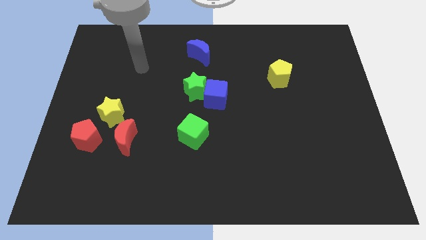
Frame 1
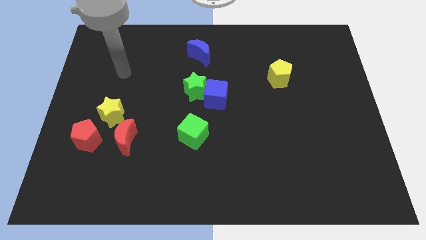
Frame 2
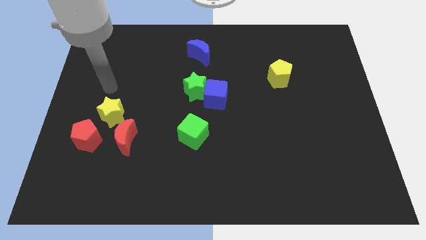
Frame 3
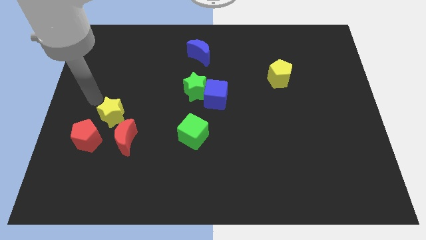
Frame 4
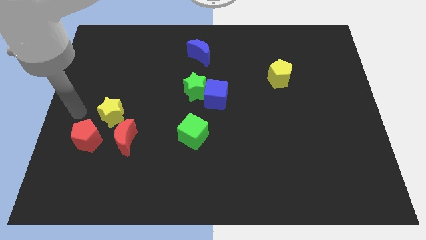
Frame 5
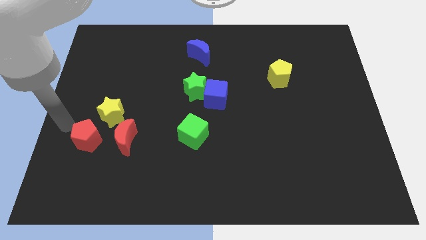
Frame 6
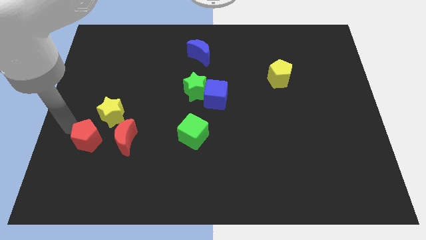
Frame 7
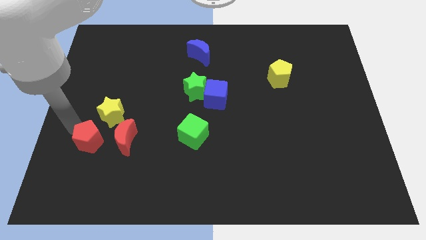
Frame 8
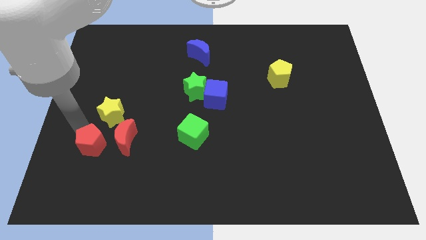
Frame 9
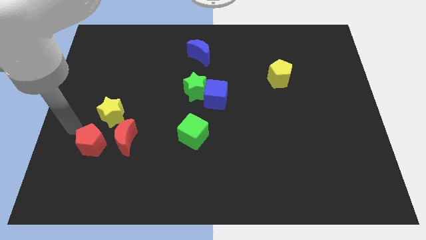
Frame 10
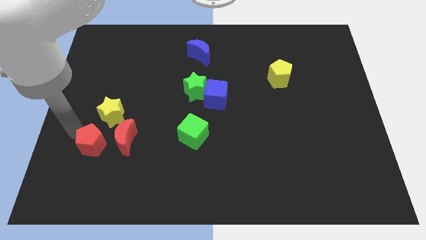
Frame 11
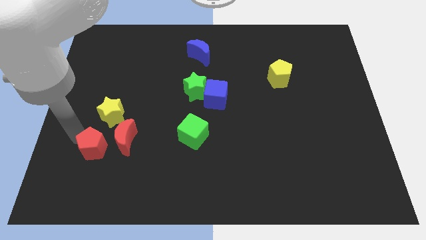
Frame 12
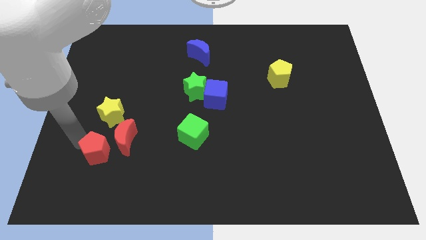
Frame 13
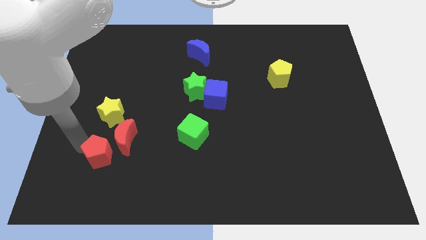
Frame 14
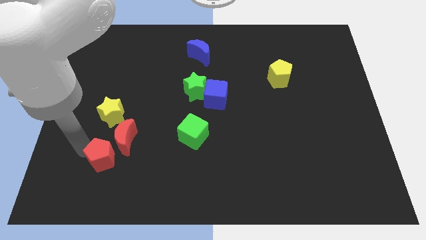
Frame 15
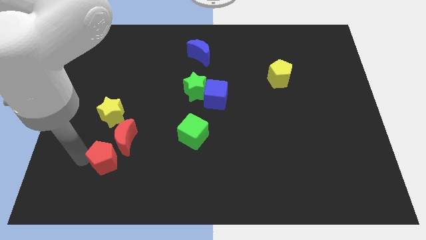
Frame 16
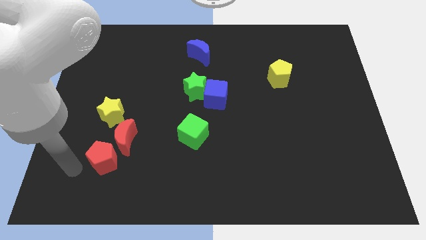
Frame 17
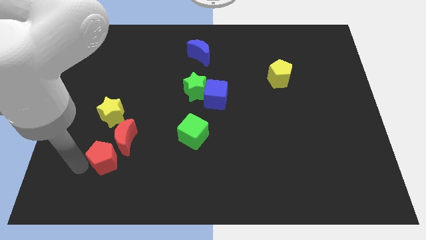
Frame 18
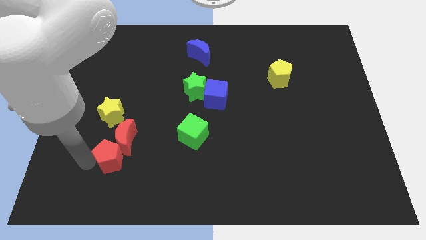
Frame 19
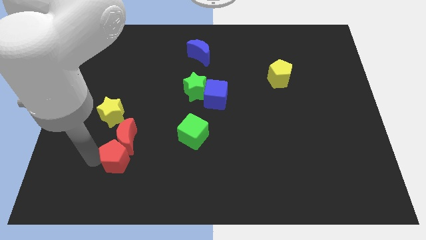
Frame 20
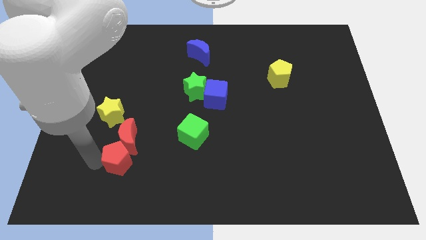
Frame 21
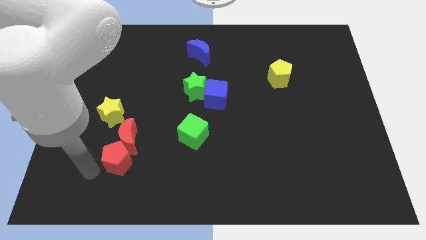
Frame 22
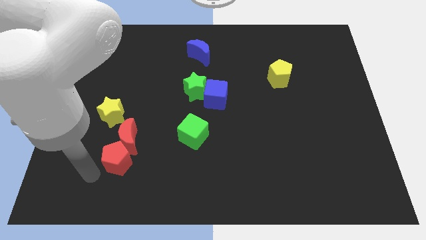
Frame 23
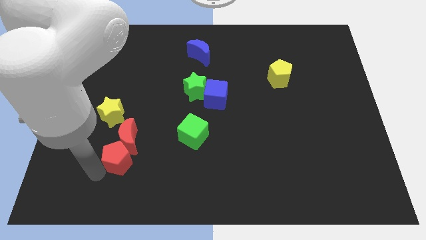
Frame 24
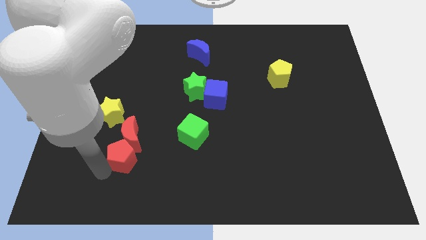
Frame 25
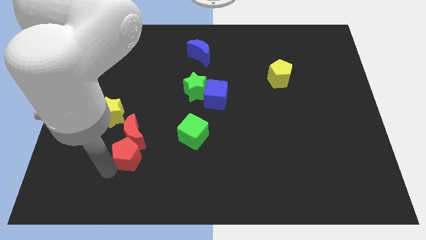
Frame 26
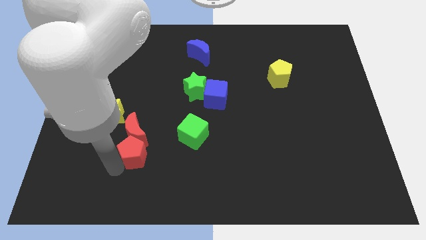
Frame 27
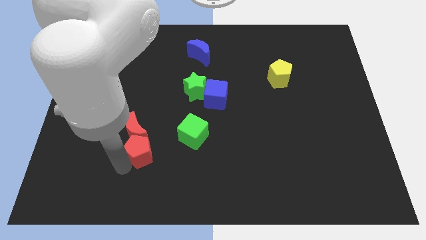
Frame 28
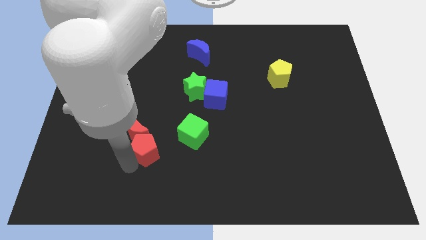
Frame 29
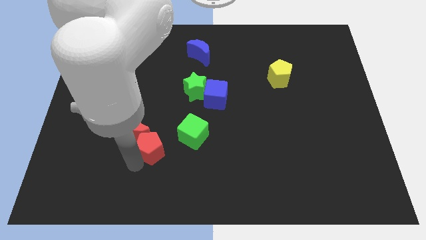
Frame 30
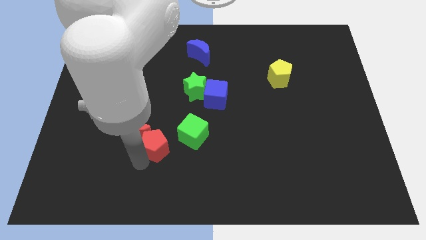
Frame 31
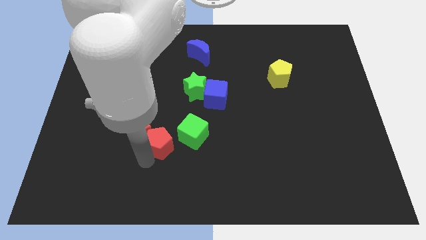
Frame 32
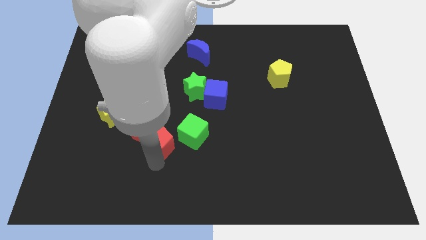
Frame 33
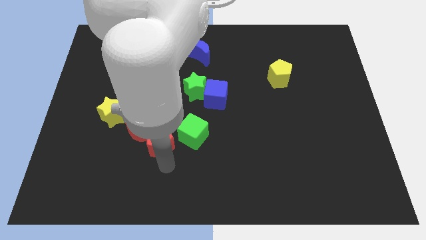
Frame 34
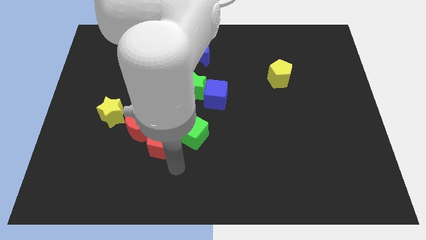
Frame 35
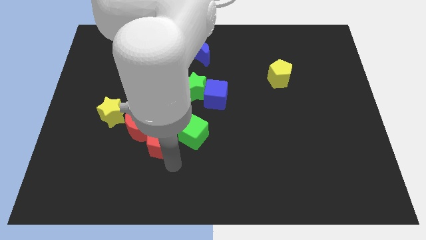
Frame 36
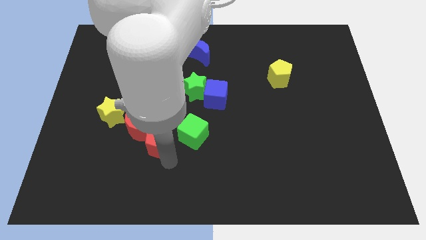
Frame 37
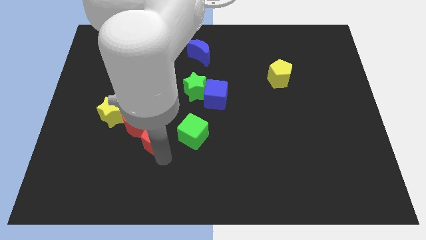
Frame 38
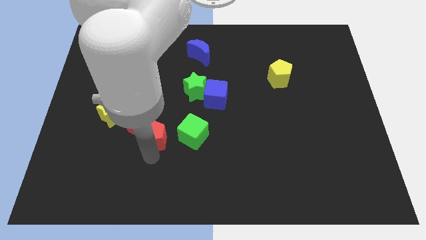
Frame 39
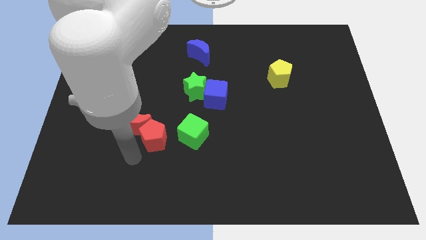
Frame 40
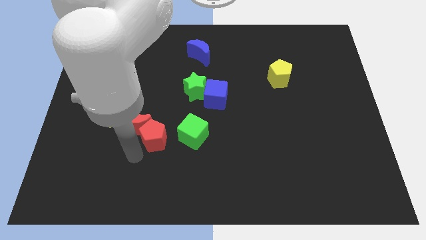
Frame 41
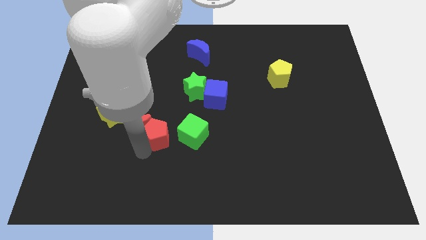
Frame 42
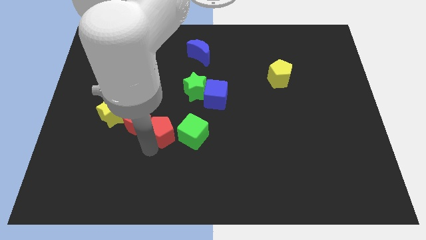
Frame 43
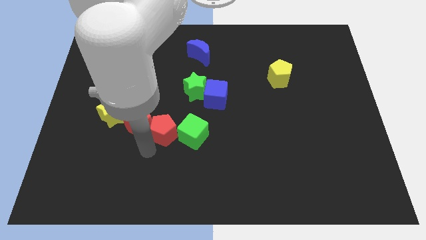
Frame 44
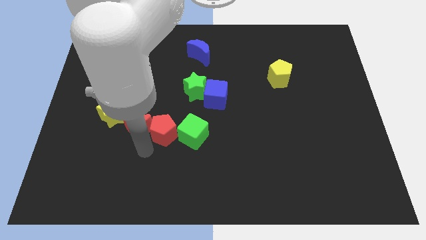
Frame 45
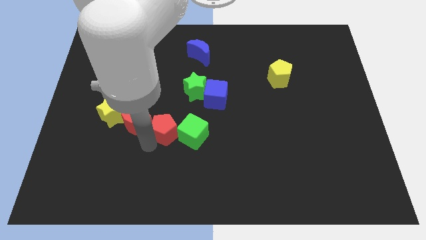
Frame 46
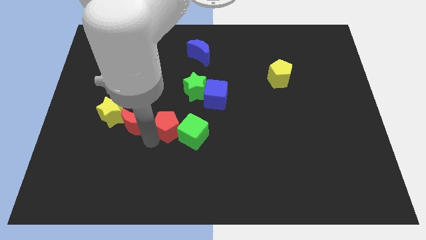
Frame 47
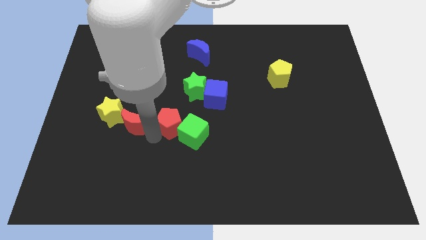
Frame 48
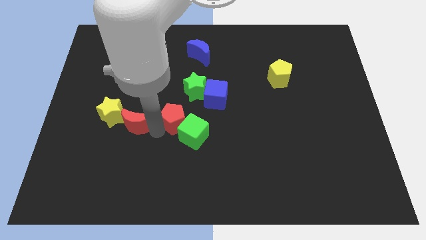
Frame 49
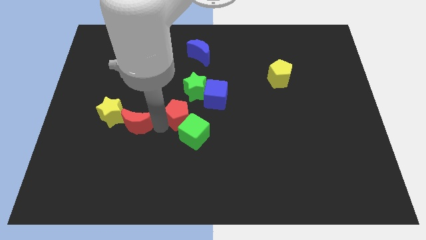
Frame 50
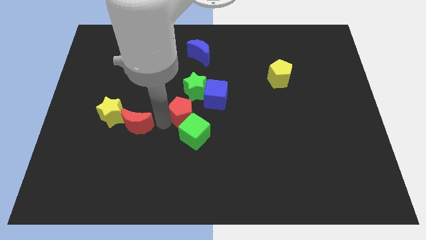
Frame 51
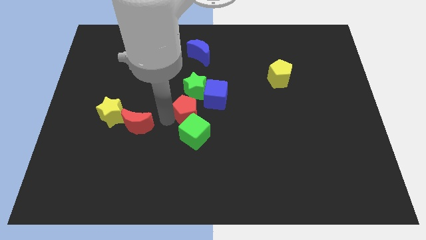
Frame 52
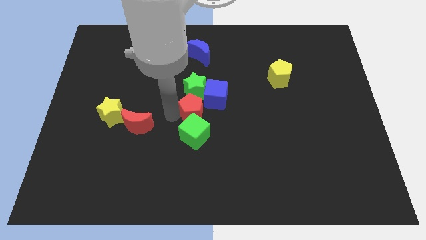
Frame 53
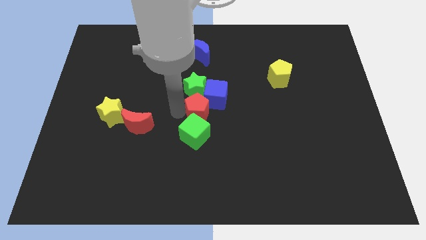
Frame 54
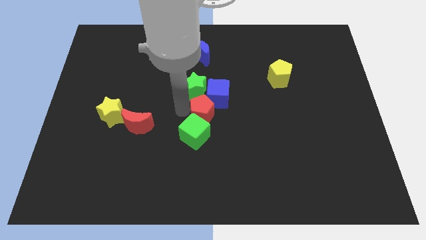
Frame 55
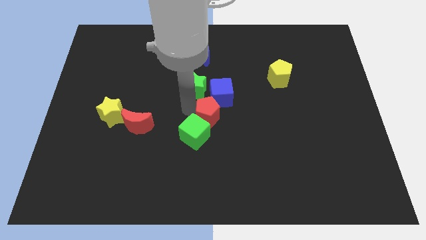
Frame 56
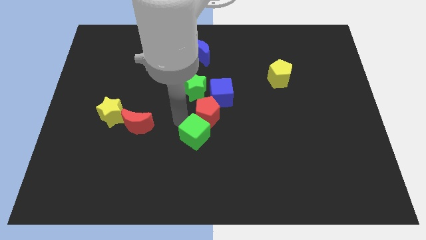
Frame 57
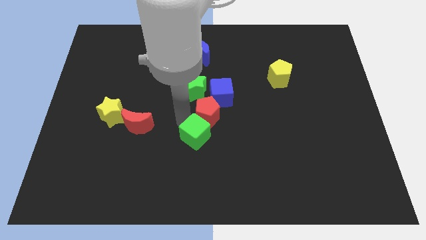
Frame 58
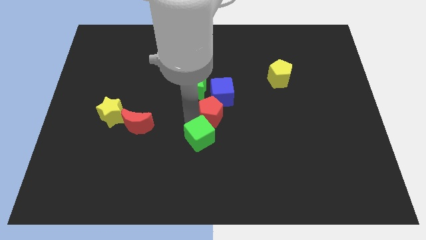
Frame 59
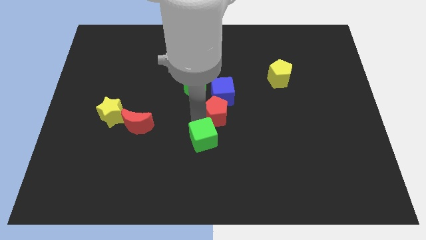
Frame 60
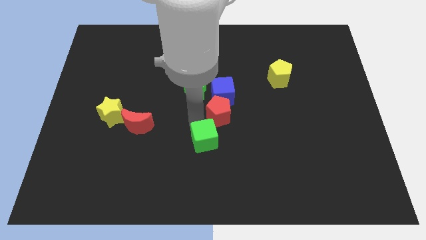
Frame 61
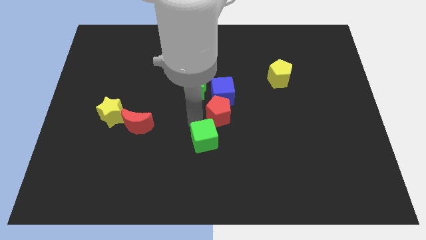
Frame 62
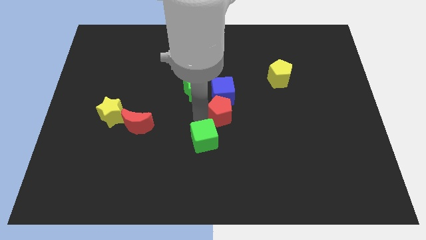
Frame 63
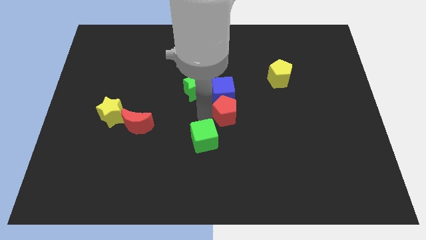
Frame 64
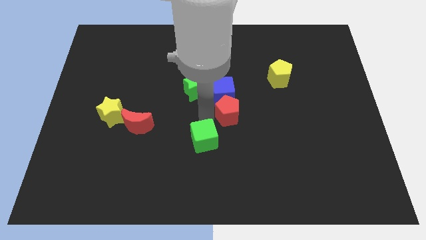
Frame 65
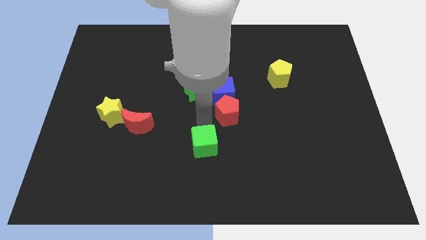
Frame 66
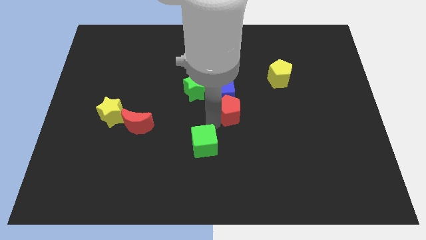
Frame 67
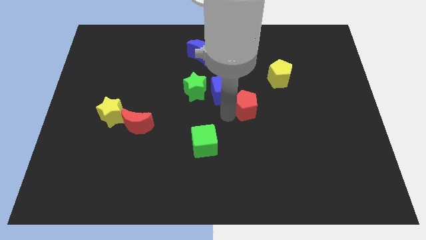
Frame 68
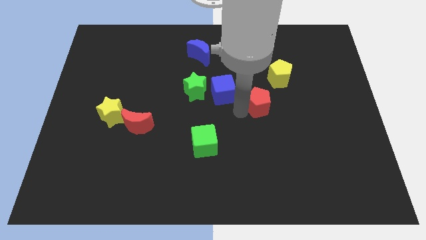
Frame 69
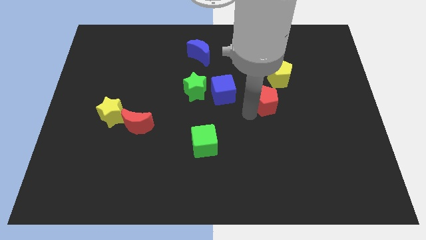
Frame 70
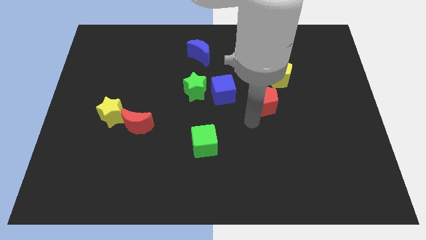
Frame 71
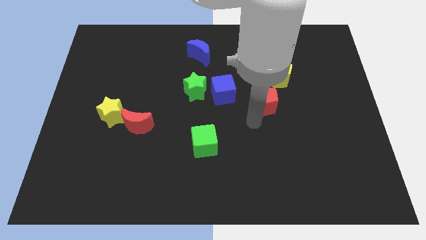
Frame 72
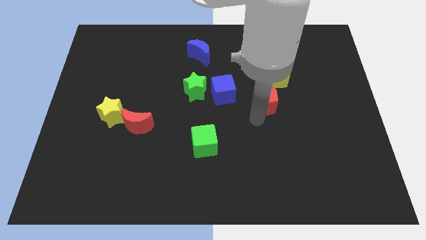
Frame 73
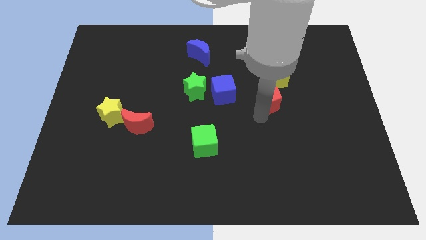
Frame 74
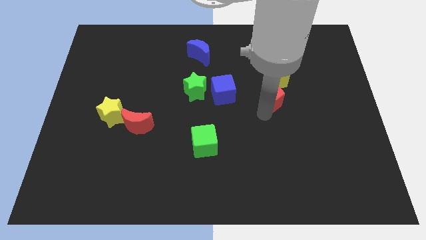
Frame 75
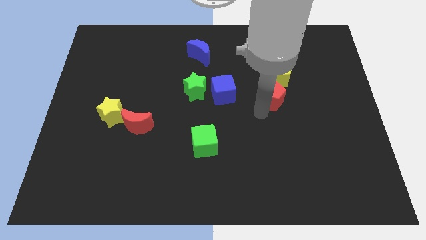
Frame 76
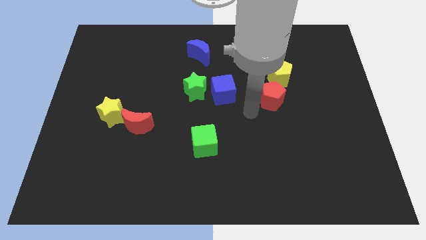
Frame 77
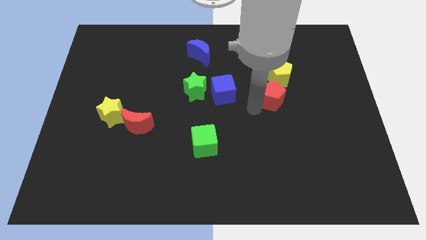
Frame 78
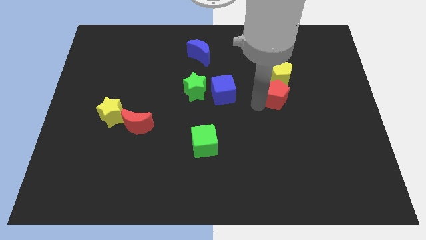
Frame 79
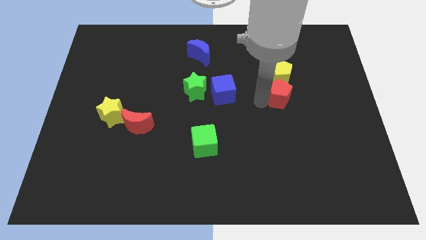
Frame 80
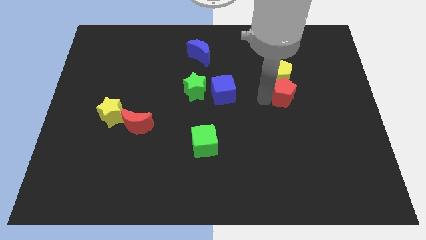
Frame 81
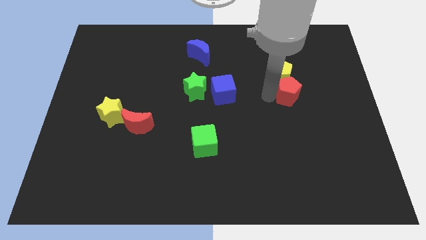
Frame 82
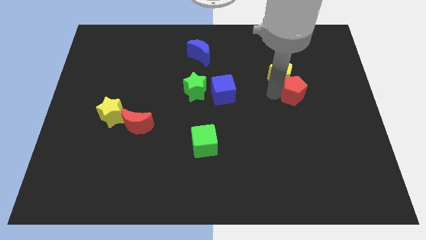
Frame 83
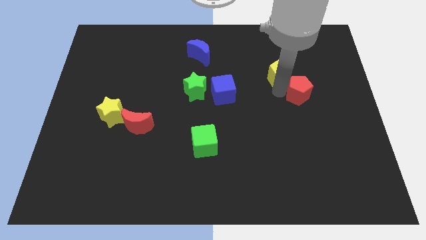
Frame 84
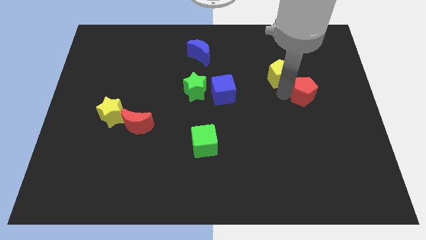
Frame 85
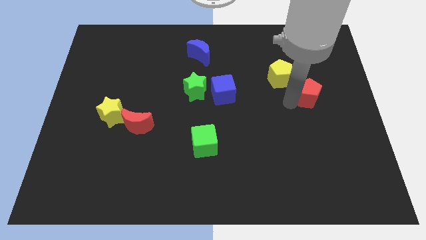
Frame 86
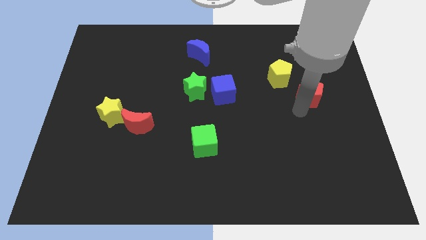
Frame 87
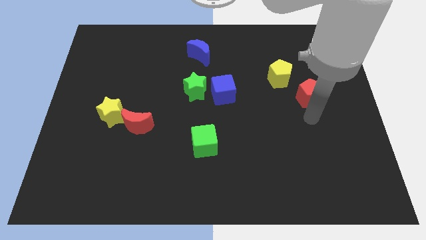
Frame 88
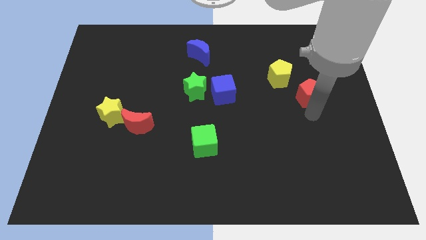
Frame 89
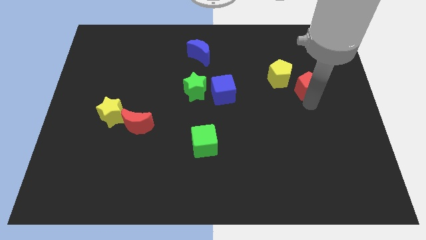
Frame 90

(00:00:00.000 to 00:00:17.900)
push the red pentagon to the right side of the yellow pentagon
